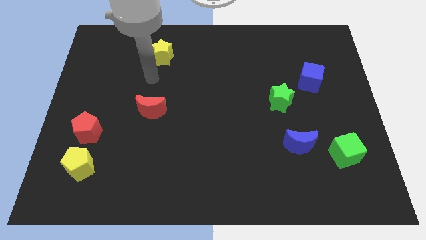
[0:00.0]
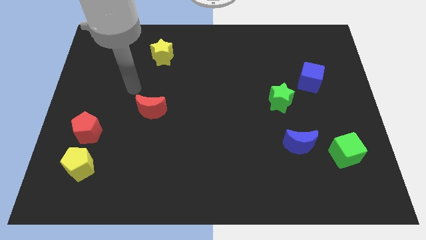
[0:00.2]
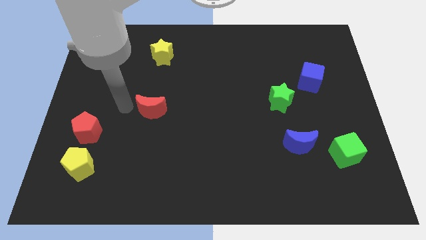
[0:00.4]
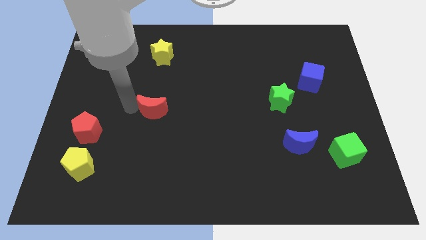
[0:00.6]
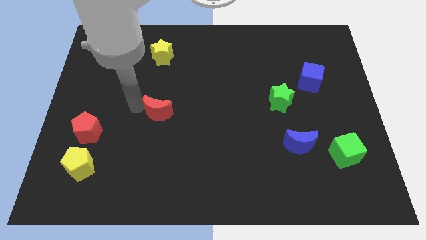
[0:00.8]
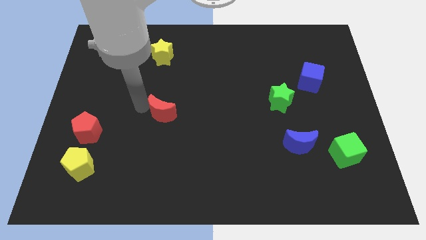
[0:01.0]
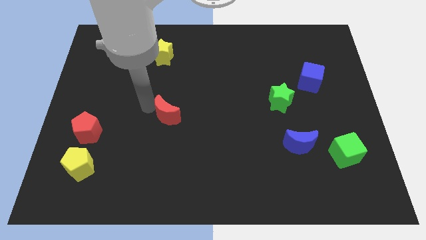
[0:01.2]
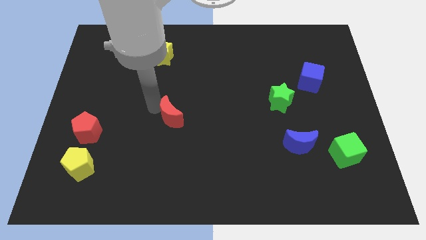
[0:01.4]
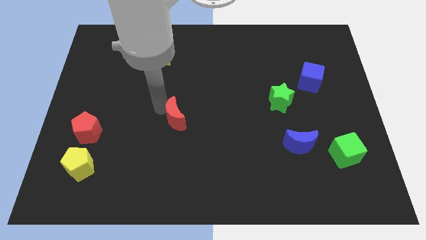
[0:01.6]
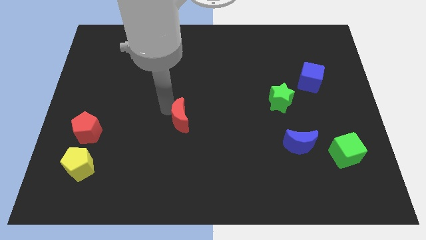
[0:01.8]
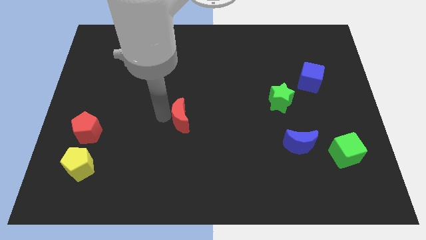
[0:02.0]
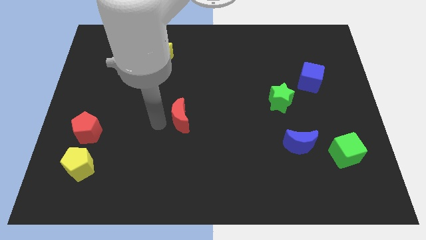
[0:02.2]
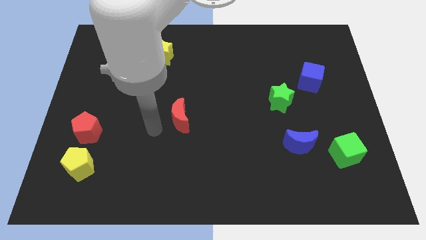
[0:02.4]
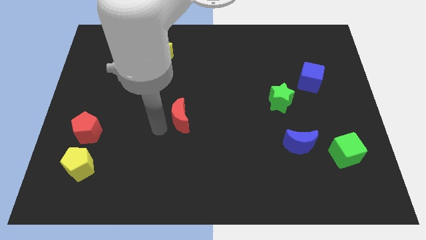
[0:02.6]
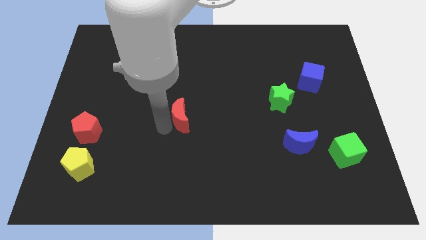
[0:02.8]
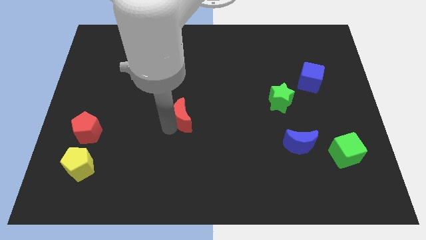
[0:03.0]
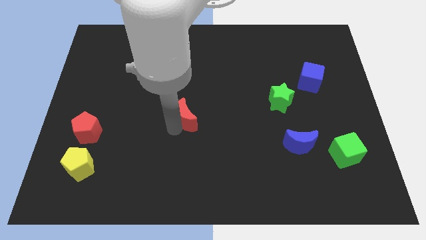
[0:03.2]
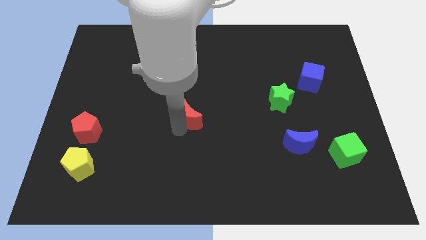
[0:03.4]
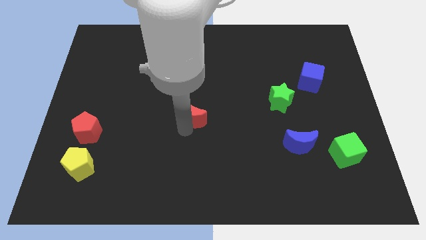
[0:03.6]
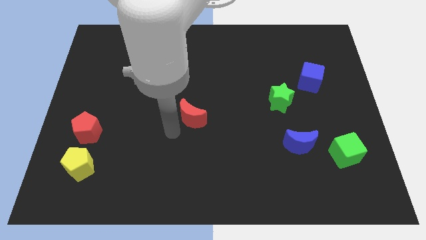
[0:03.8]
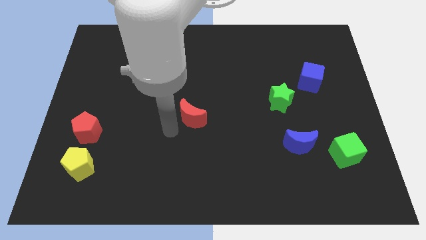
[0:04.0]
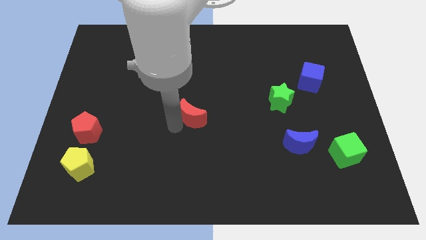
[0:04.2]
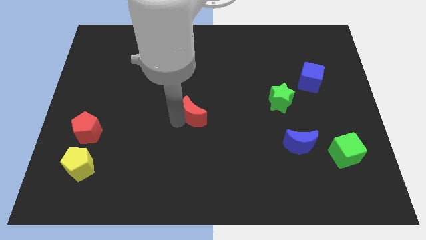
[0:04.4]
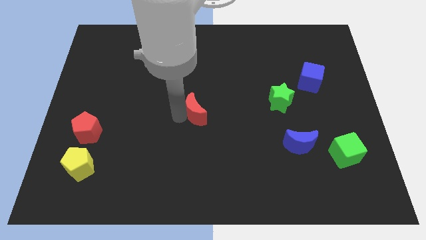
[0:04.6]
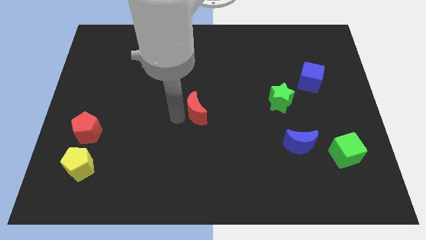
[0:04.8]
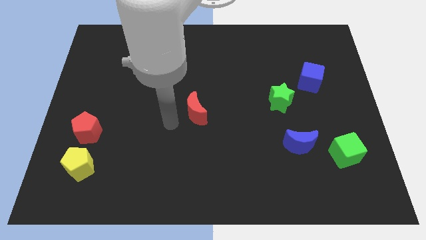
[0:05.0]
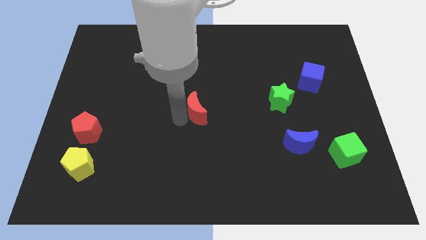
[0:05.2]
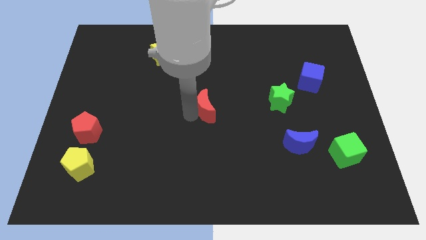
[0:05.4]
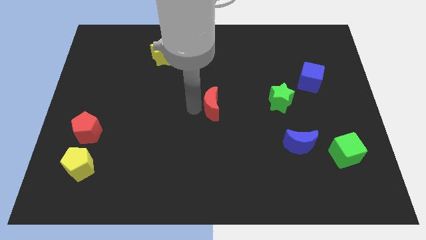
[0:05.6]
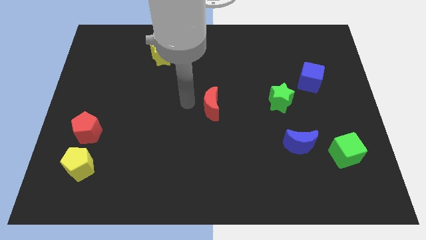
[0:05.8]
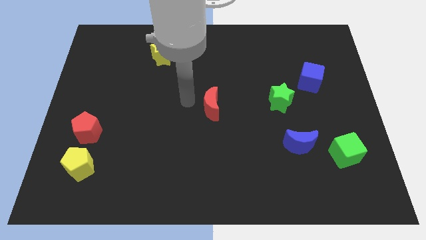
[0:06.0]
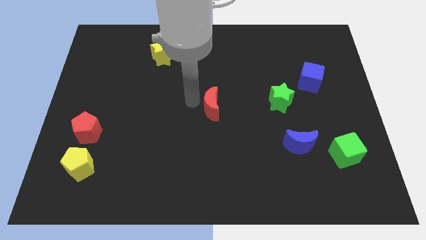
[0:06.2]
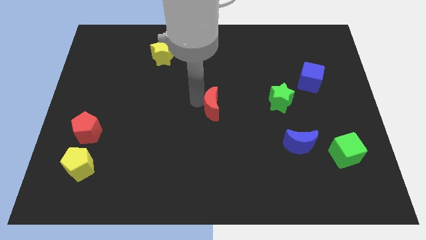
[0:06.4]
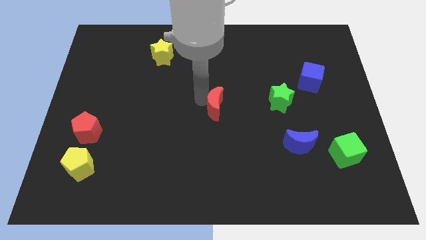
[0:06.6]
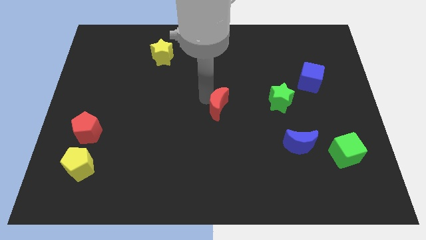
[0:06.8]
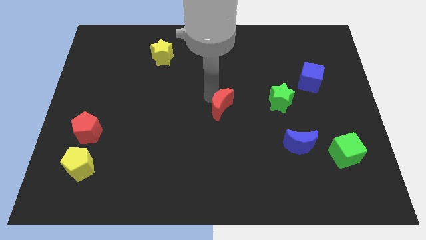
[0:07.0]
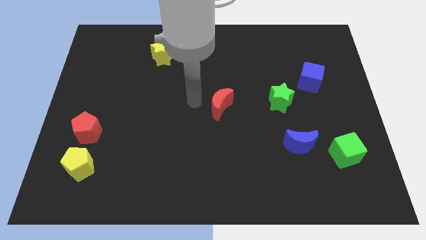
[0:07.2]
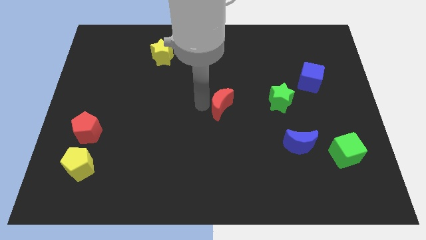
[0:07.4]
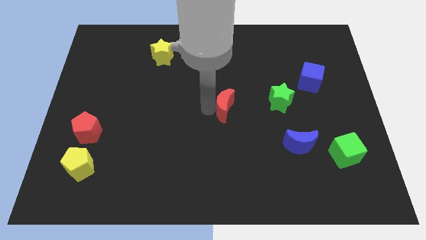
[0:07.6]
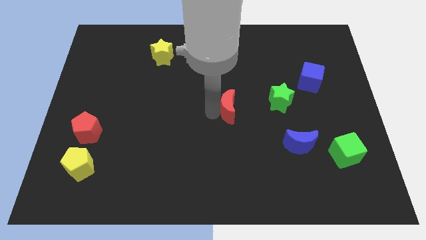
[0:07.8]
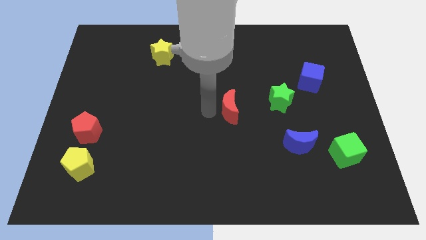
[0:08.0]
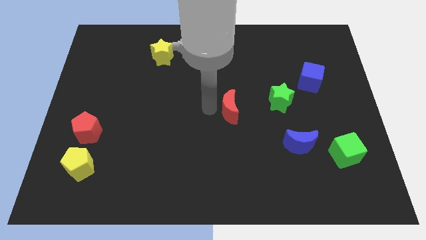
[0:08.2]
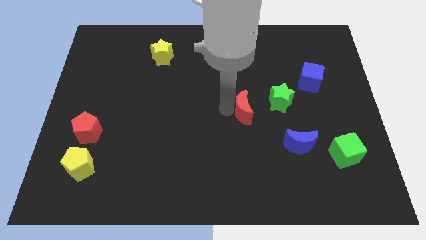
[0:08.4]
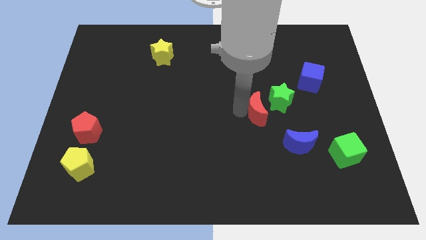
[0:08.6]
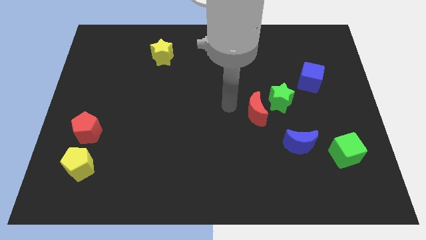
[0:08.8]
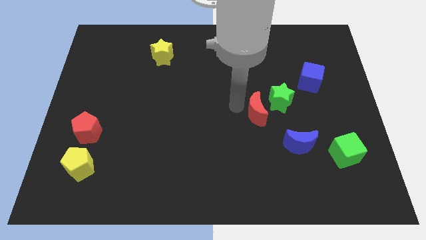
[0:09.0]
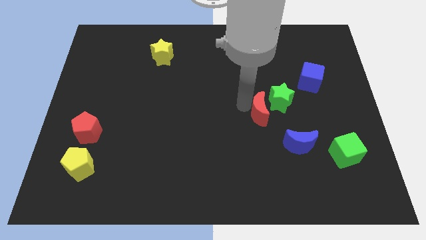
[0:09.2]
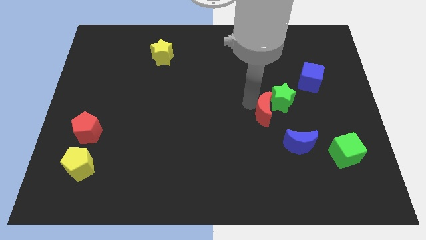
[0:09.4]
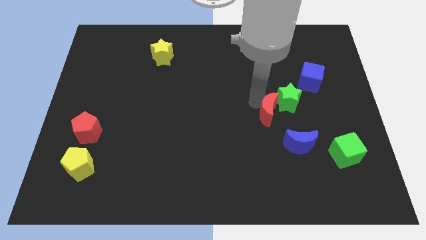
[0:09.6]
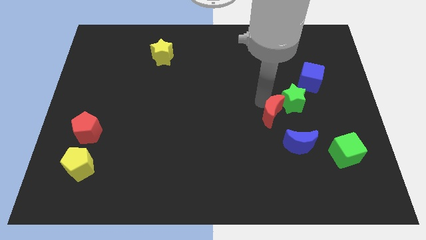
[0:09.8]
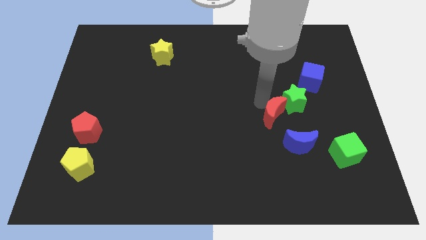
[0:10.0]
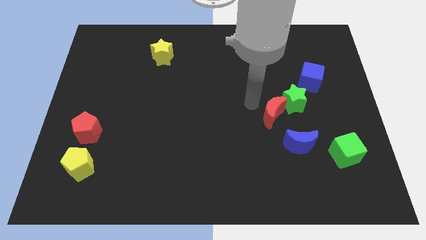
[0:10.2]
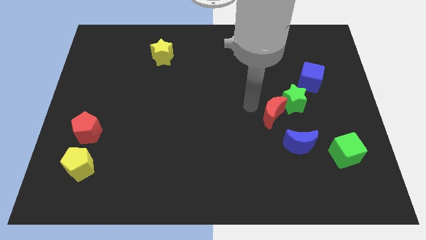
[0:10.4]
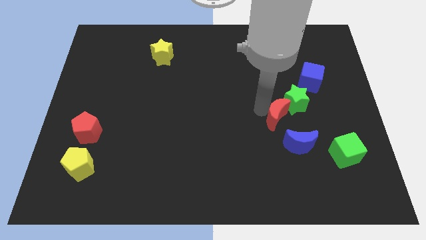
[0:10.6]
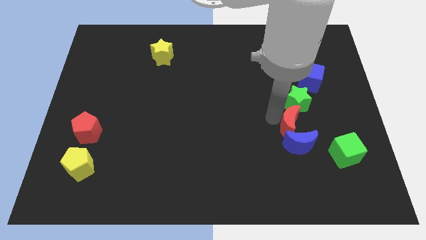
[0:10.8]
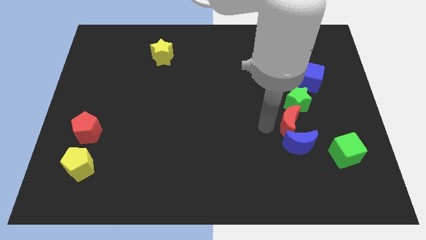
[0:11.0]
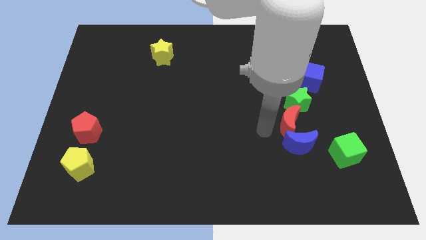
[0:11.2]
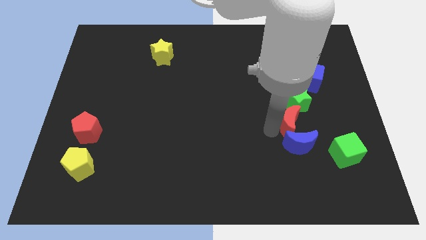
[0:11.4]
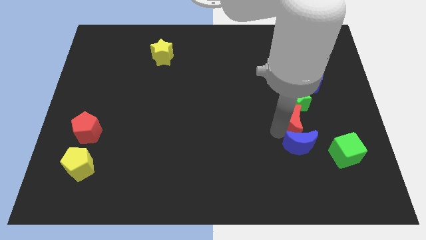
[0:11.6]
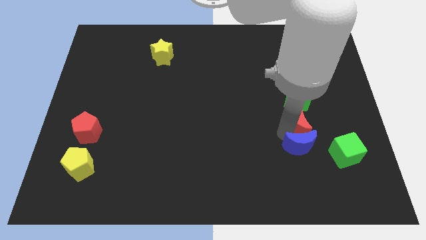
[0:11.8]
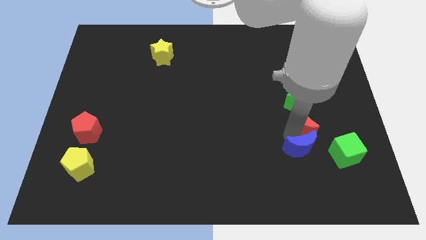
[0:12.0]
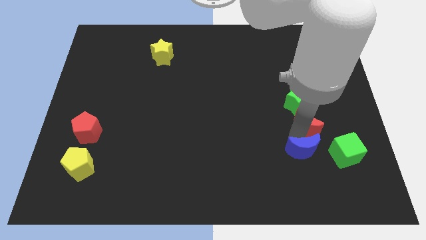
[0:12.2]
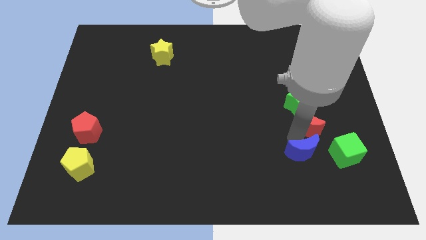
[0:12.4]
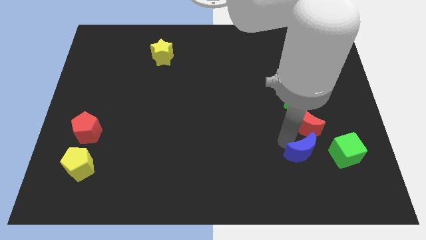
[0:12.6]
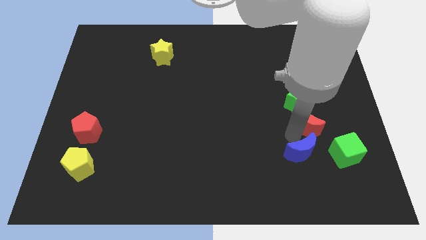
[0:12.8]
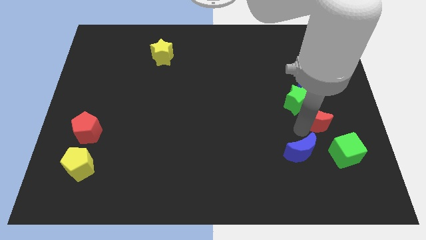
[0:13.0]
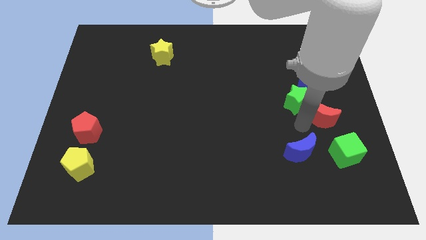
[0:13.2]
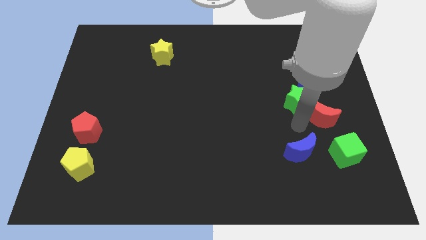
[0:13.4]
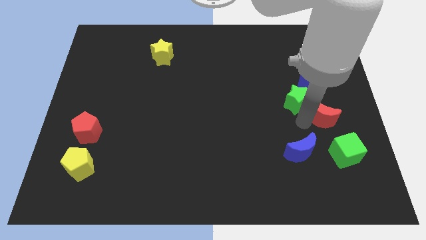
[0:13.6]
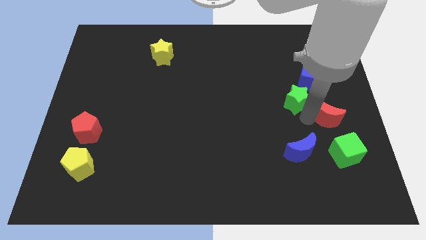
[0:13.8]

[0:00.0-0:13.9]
put the red moon to the right side of the board
